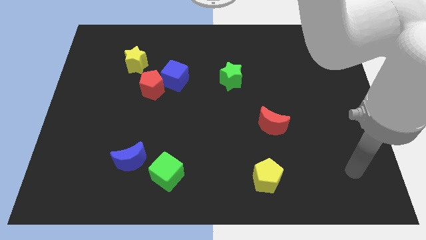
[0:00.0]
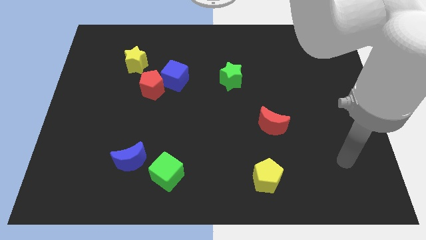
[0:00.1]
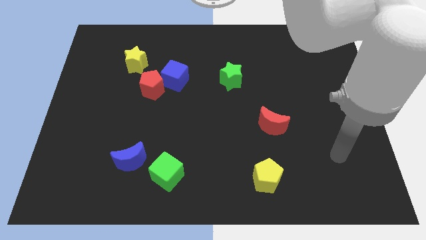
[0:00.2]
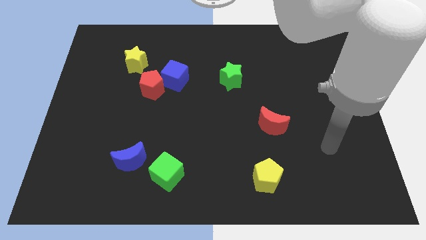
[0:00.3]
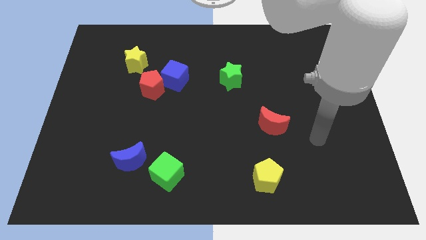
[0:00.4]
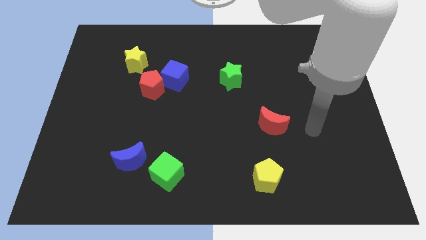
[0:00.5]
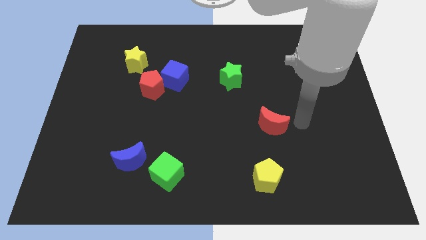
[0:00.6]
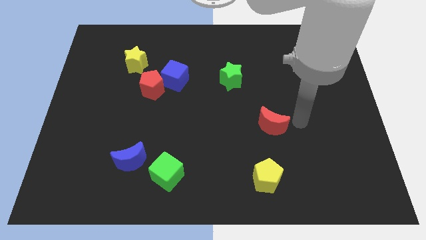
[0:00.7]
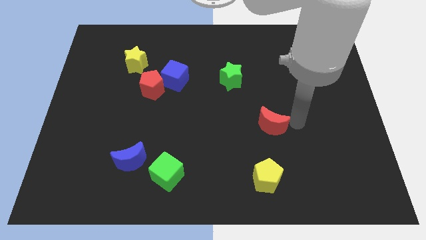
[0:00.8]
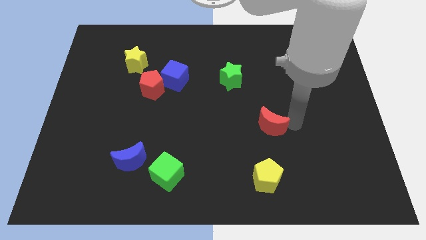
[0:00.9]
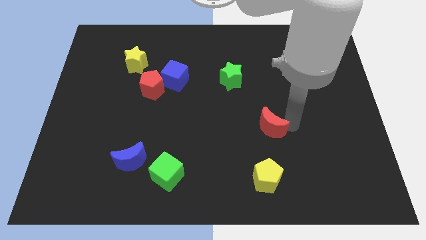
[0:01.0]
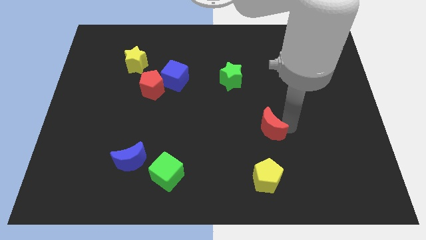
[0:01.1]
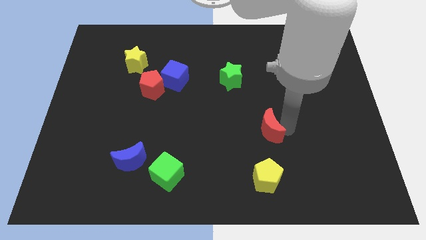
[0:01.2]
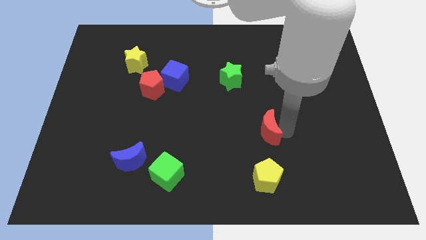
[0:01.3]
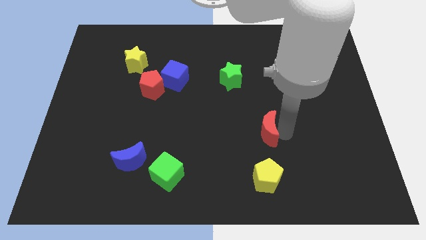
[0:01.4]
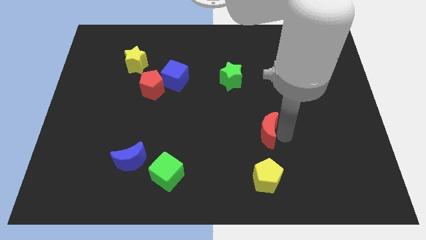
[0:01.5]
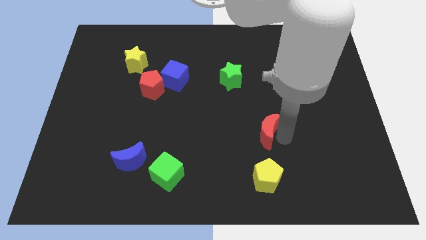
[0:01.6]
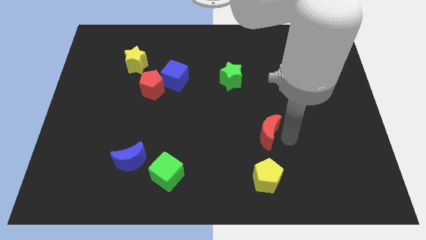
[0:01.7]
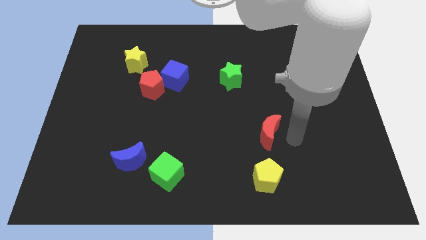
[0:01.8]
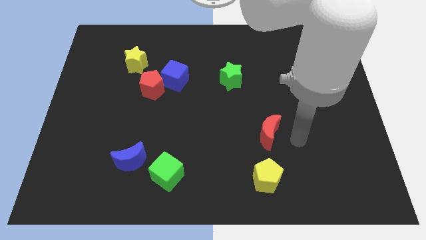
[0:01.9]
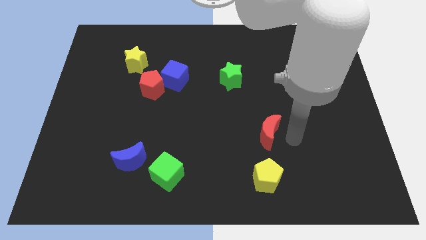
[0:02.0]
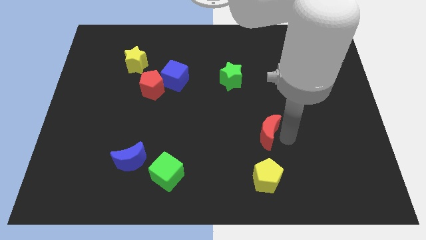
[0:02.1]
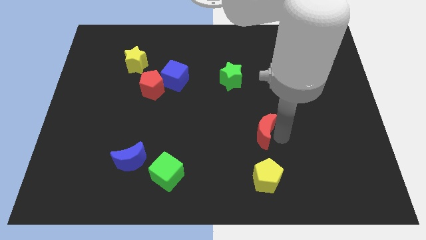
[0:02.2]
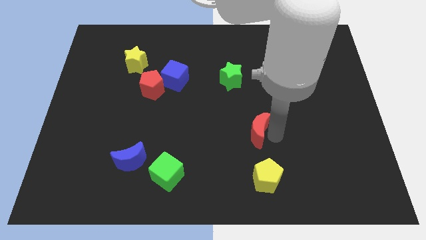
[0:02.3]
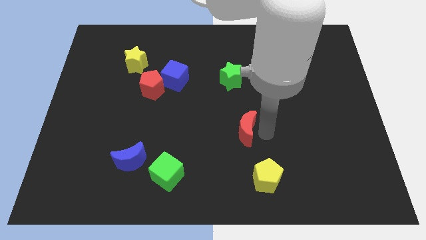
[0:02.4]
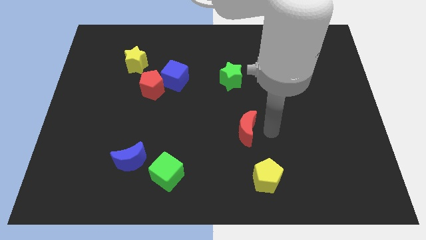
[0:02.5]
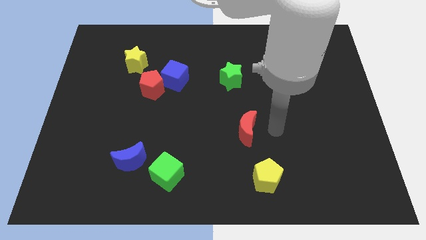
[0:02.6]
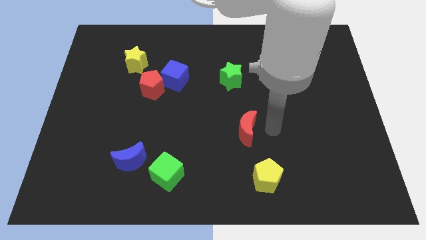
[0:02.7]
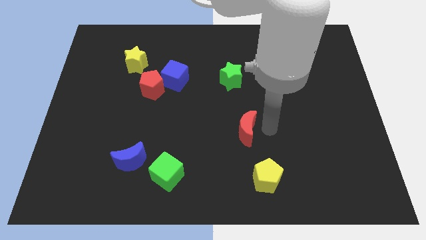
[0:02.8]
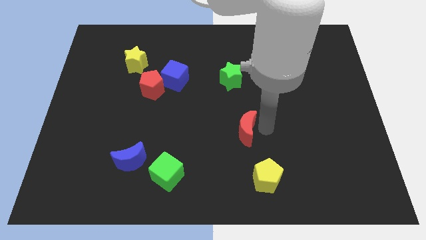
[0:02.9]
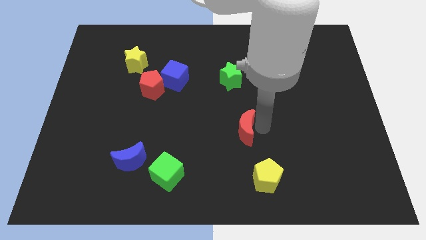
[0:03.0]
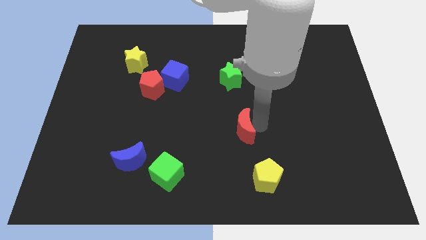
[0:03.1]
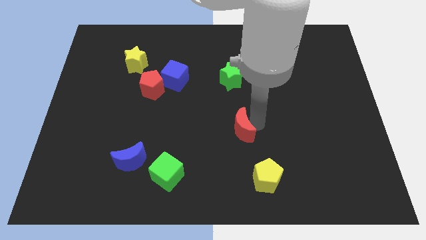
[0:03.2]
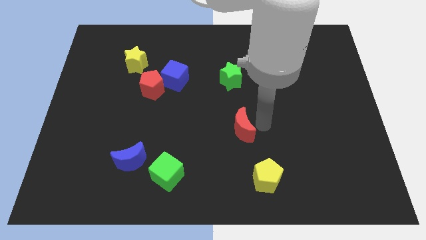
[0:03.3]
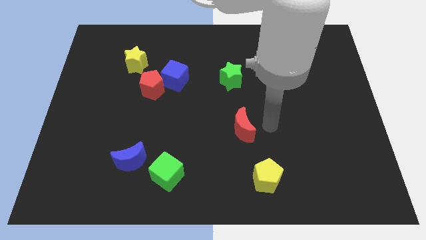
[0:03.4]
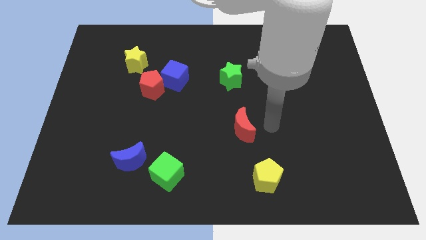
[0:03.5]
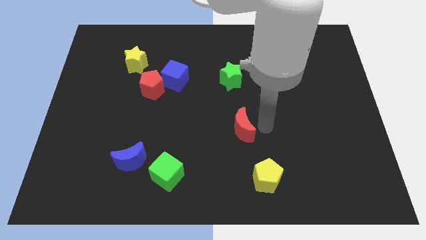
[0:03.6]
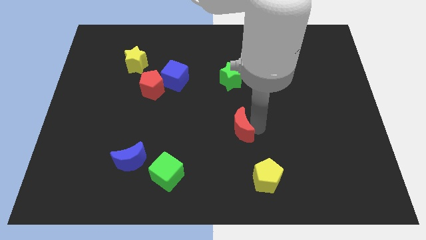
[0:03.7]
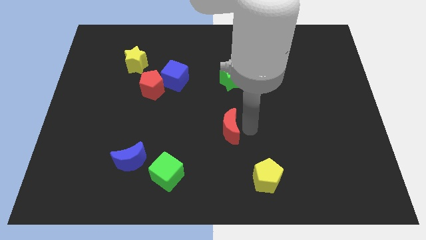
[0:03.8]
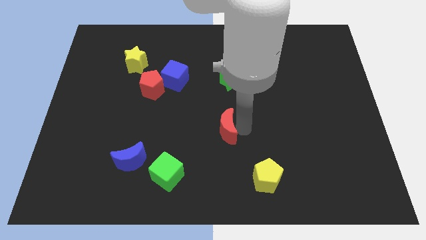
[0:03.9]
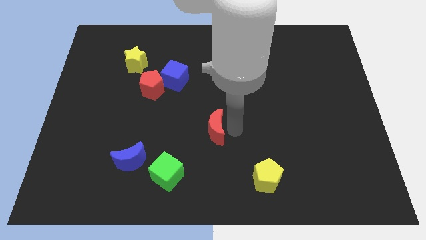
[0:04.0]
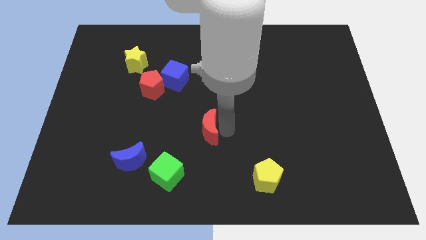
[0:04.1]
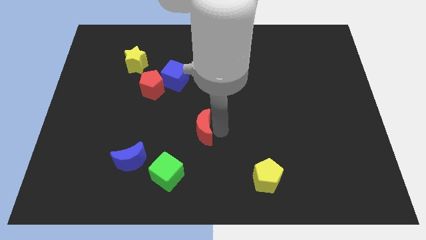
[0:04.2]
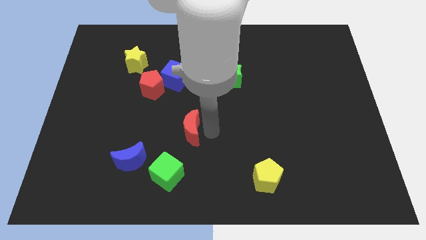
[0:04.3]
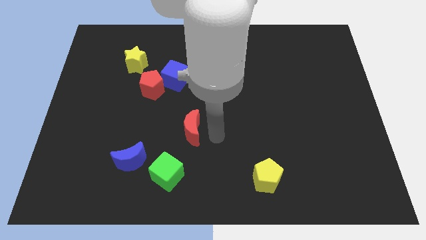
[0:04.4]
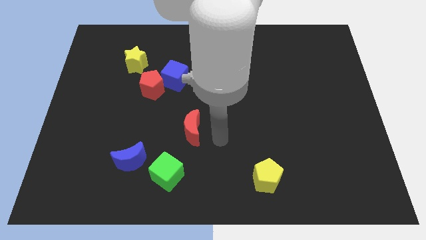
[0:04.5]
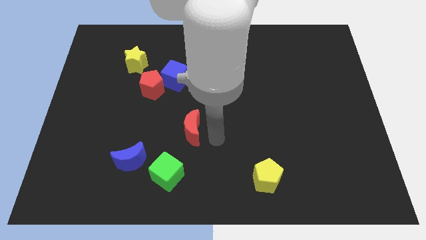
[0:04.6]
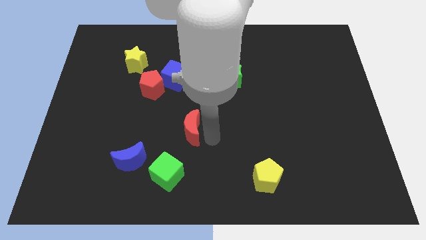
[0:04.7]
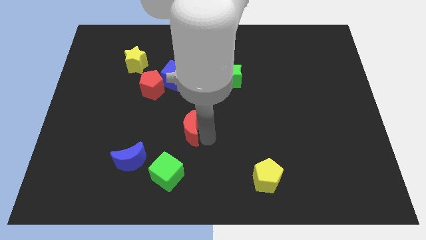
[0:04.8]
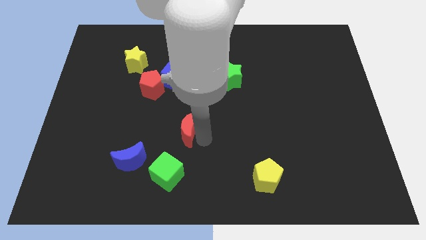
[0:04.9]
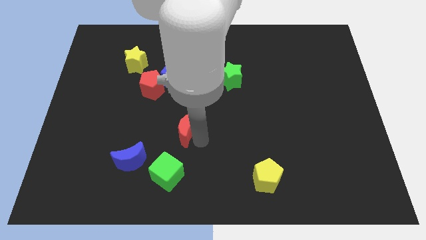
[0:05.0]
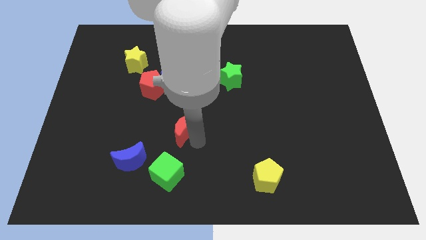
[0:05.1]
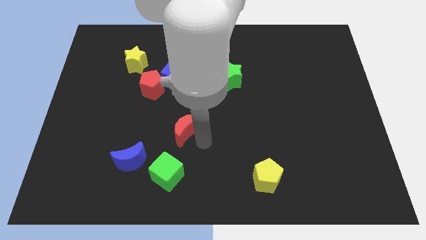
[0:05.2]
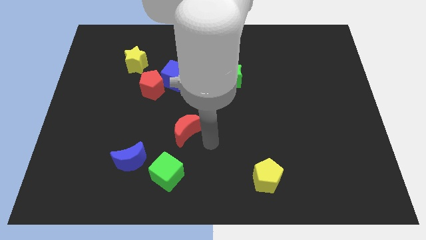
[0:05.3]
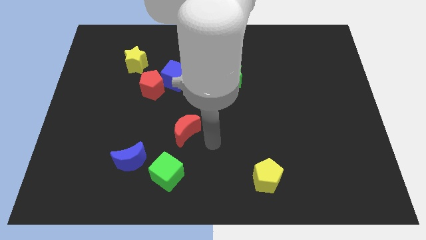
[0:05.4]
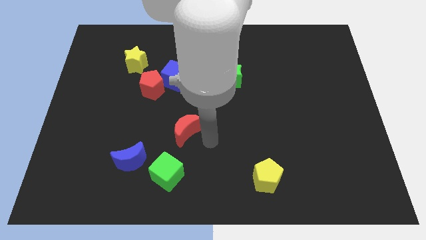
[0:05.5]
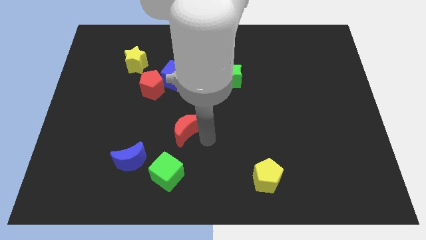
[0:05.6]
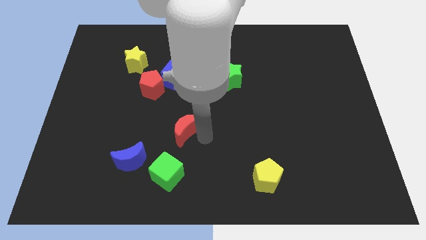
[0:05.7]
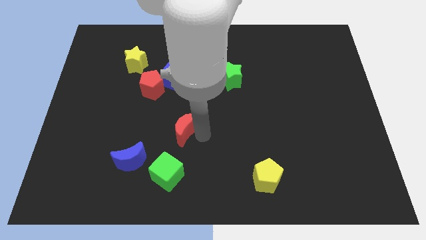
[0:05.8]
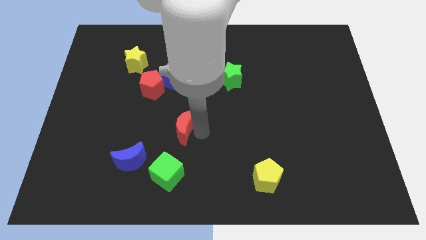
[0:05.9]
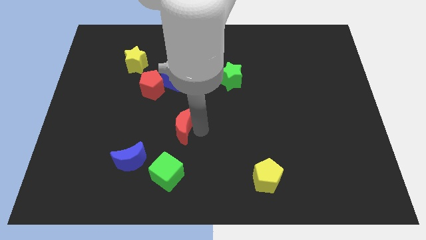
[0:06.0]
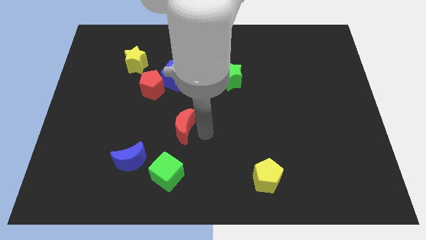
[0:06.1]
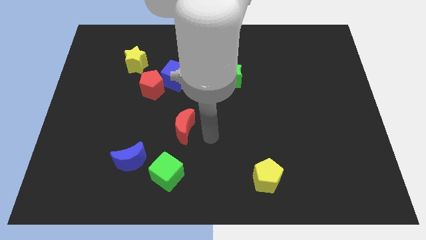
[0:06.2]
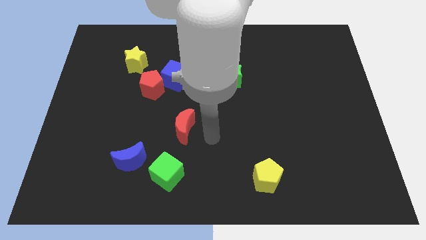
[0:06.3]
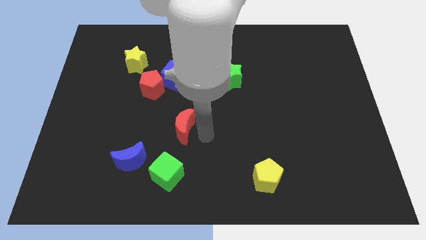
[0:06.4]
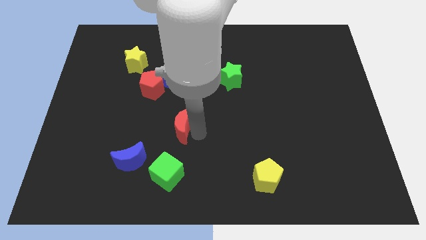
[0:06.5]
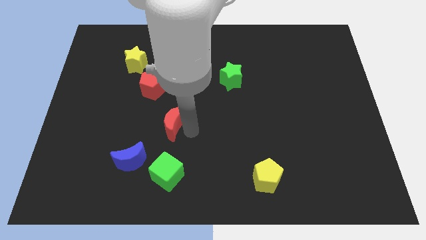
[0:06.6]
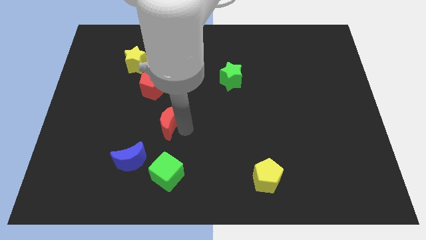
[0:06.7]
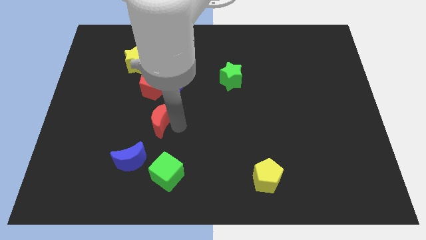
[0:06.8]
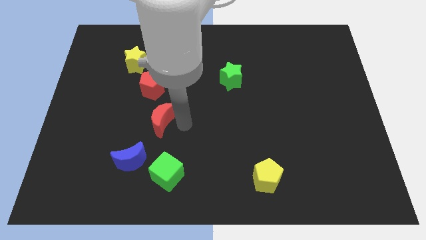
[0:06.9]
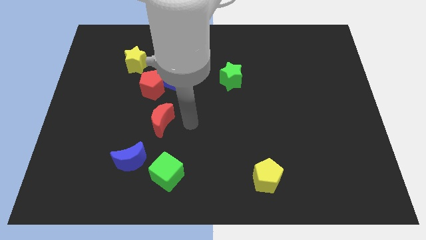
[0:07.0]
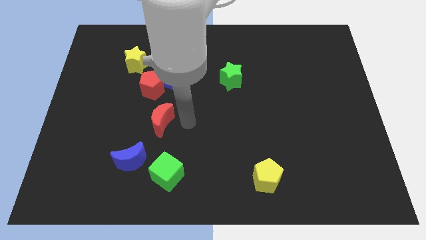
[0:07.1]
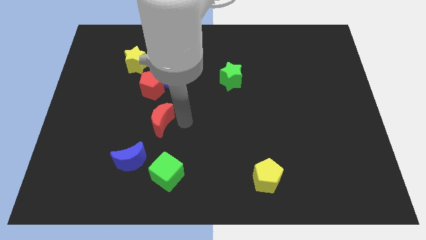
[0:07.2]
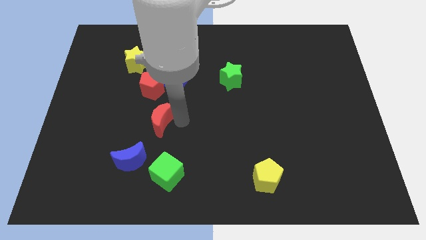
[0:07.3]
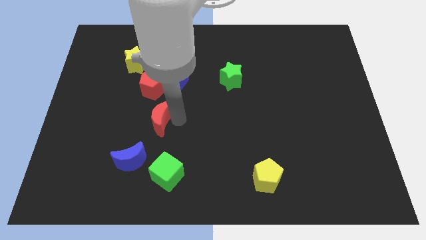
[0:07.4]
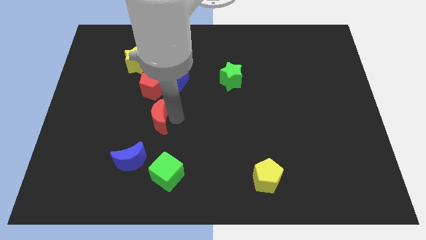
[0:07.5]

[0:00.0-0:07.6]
slide the red moon above the blue moon

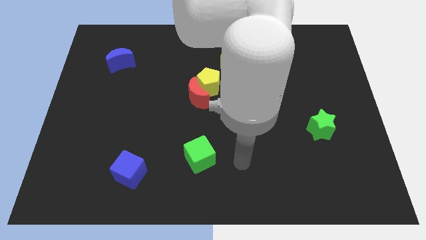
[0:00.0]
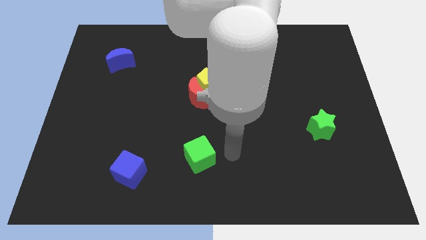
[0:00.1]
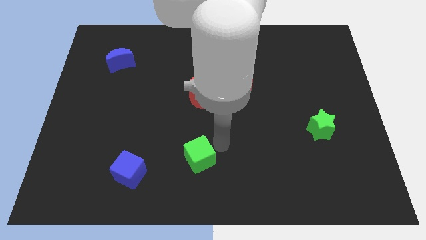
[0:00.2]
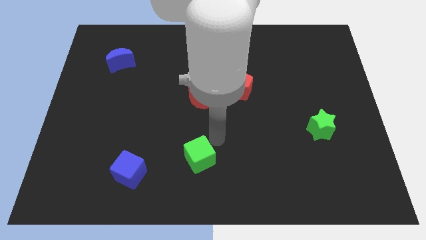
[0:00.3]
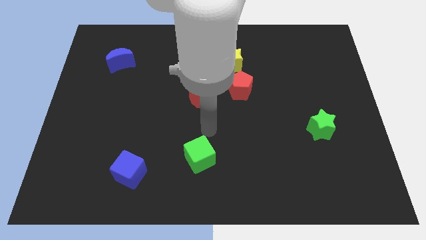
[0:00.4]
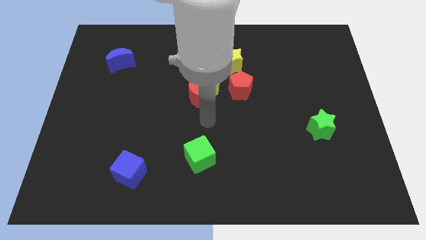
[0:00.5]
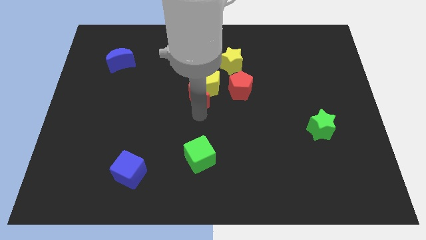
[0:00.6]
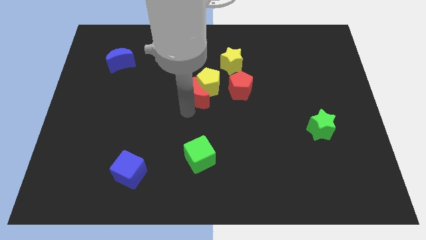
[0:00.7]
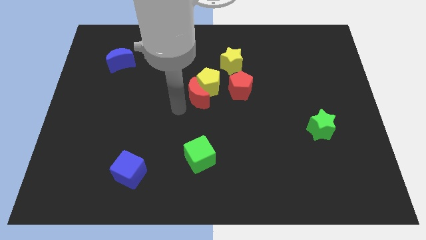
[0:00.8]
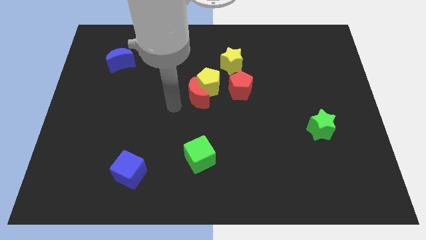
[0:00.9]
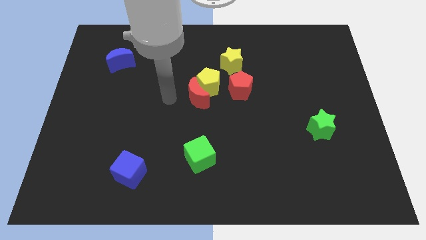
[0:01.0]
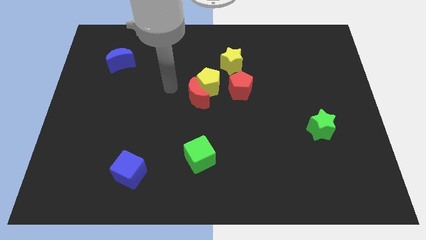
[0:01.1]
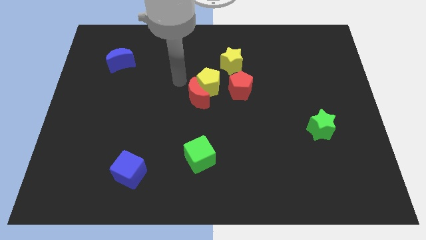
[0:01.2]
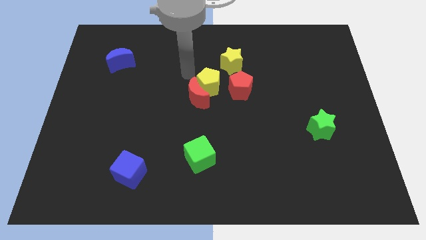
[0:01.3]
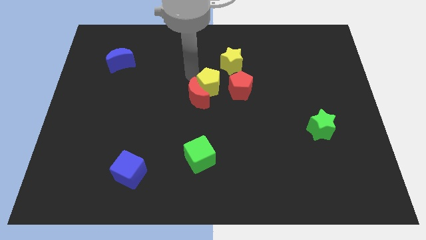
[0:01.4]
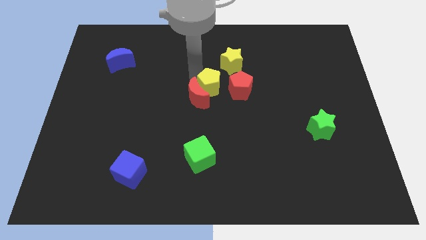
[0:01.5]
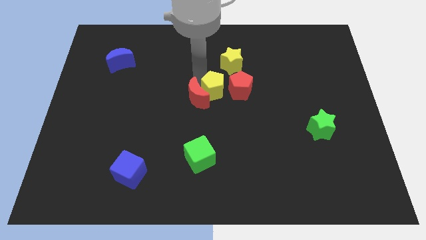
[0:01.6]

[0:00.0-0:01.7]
put the yellow pentagon diagonally down and to the left of the red pentagon
